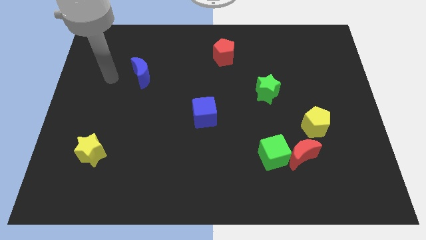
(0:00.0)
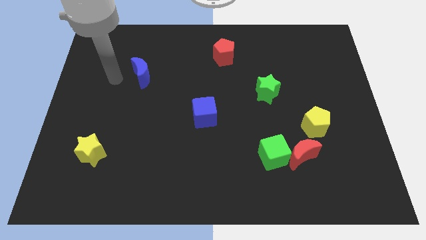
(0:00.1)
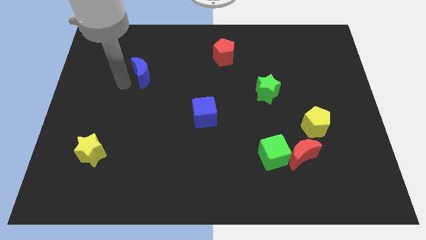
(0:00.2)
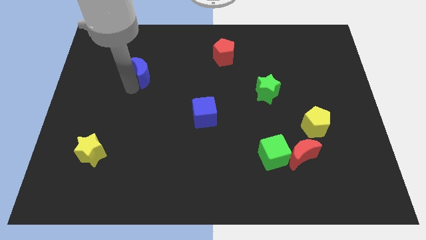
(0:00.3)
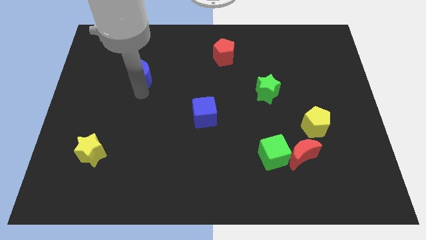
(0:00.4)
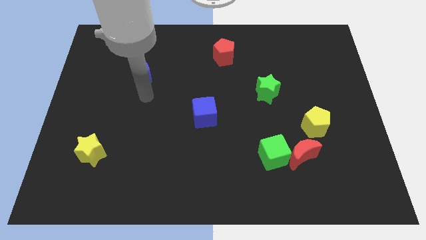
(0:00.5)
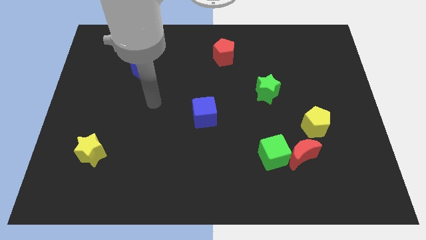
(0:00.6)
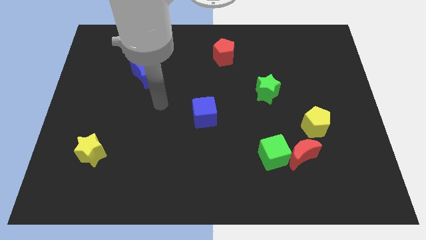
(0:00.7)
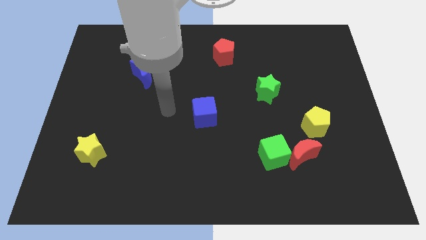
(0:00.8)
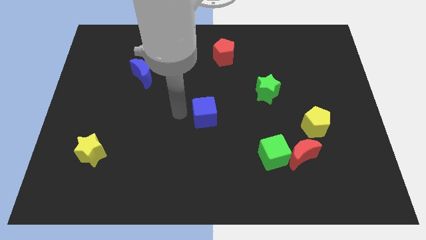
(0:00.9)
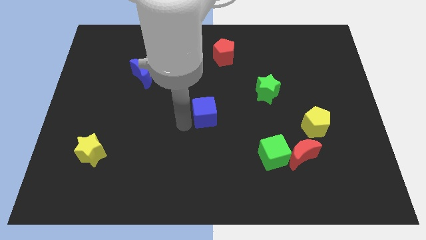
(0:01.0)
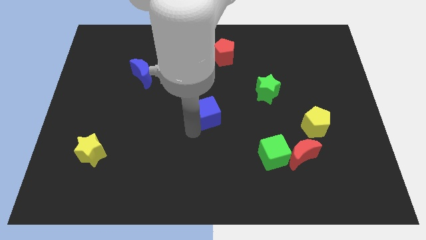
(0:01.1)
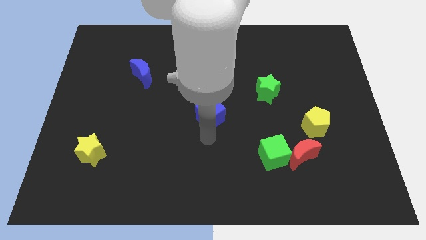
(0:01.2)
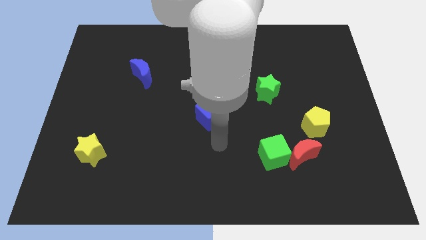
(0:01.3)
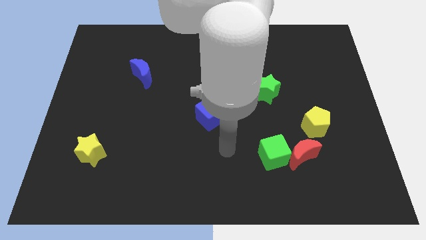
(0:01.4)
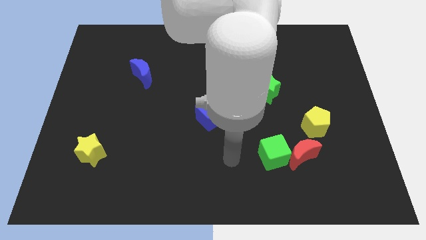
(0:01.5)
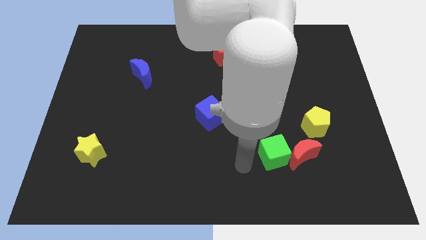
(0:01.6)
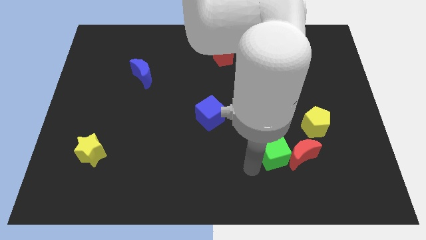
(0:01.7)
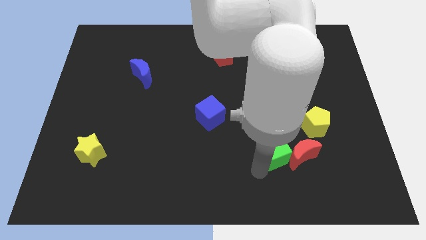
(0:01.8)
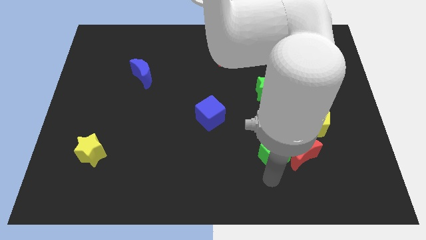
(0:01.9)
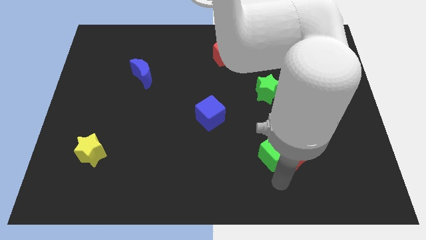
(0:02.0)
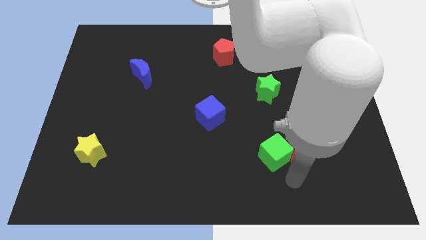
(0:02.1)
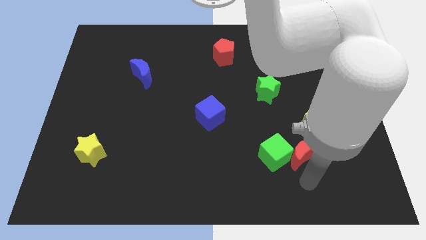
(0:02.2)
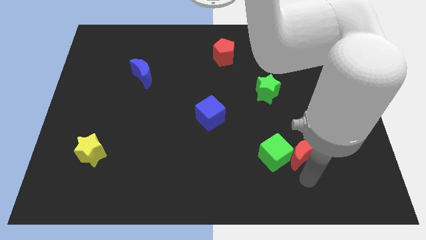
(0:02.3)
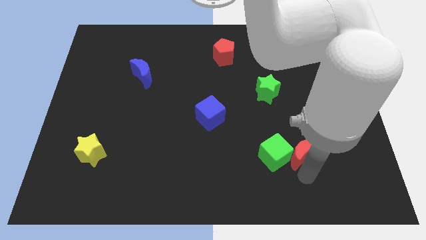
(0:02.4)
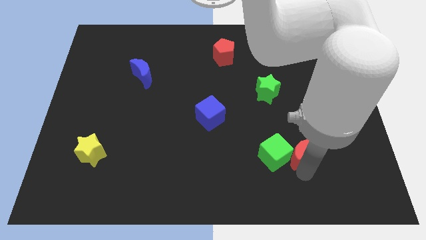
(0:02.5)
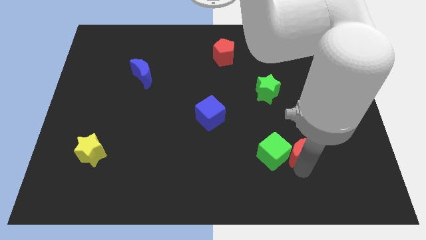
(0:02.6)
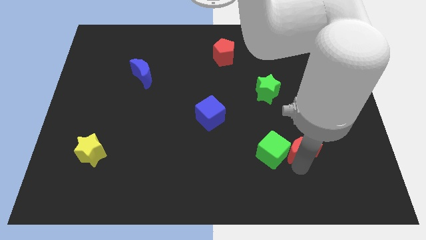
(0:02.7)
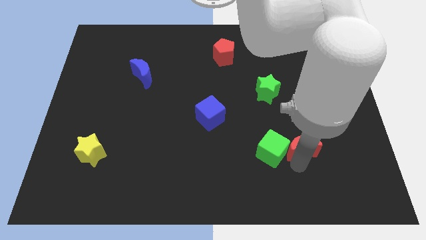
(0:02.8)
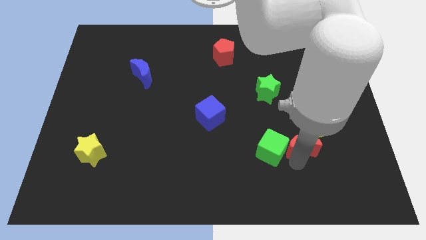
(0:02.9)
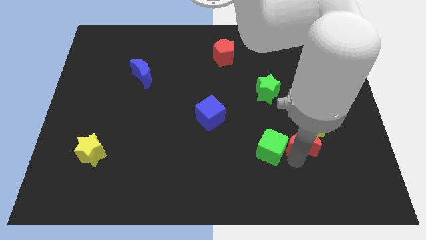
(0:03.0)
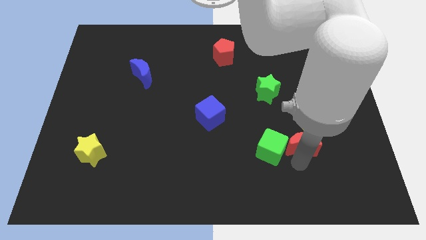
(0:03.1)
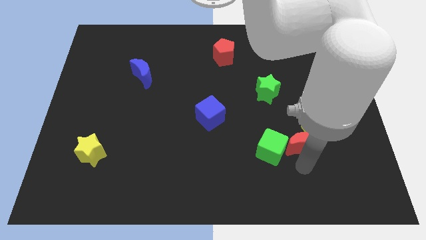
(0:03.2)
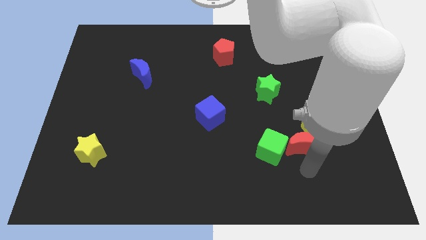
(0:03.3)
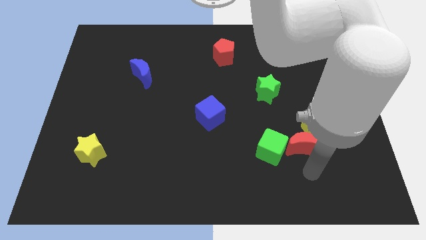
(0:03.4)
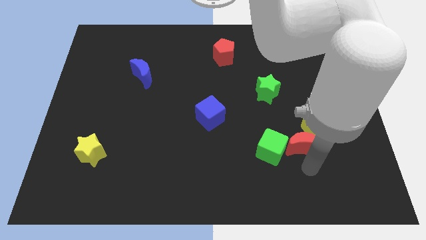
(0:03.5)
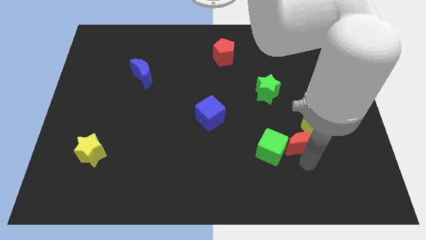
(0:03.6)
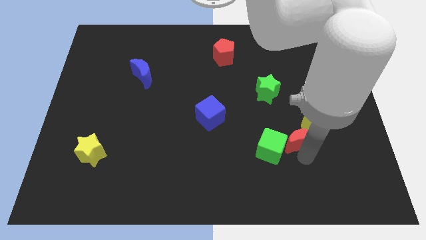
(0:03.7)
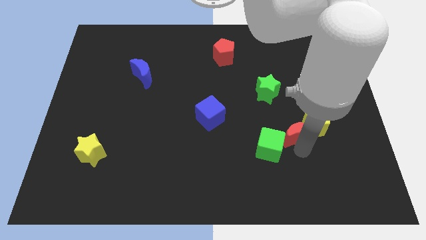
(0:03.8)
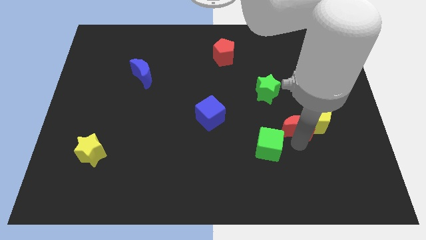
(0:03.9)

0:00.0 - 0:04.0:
slide the red moon up a little

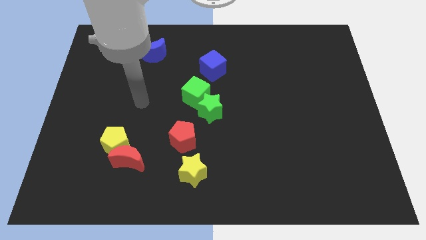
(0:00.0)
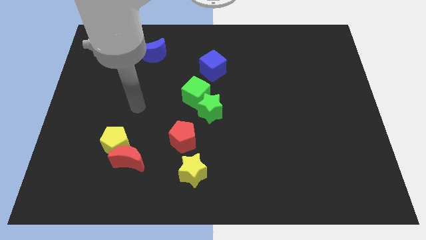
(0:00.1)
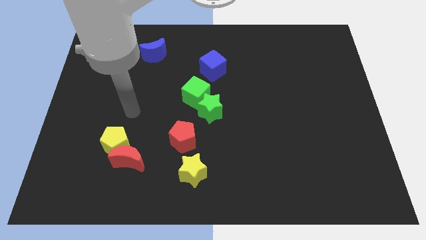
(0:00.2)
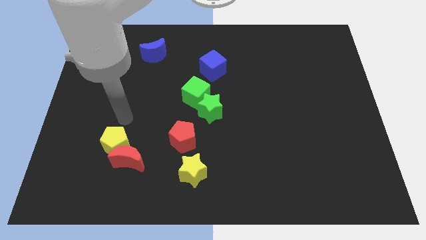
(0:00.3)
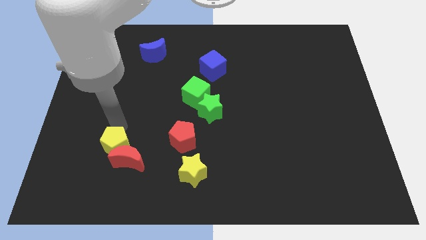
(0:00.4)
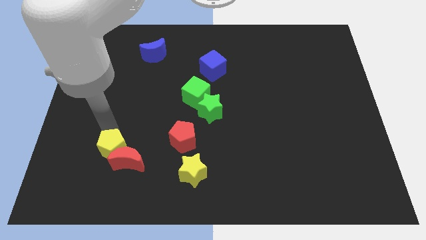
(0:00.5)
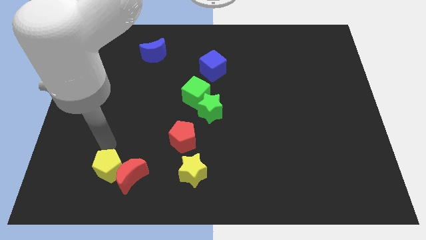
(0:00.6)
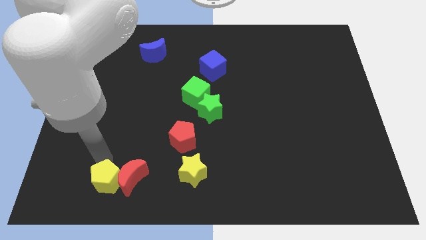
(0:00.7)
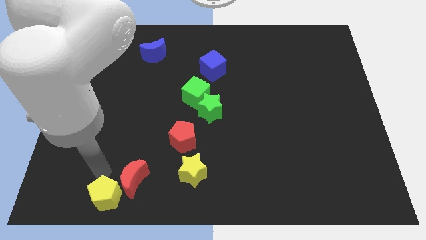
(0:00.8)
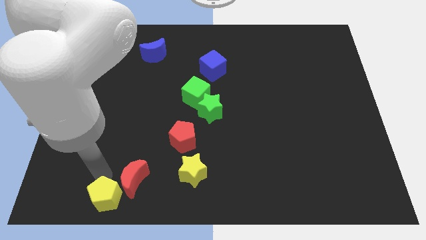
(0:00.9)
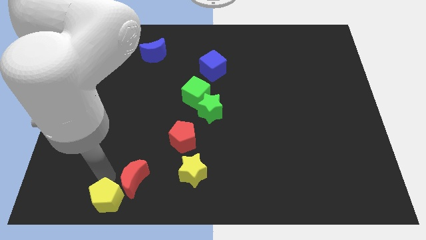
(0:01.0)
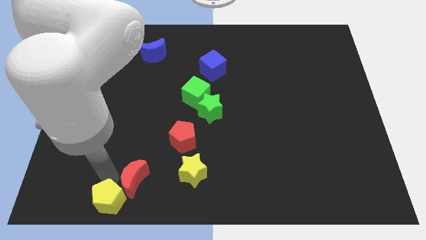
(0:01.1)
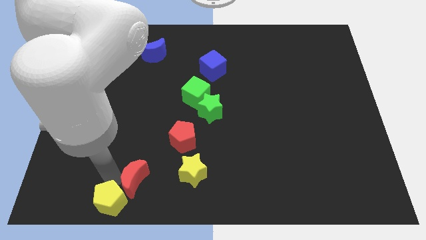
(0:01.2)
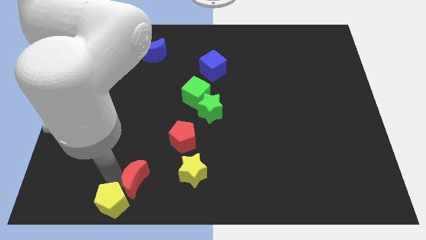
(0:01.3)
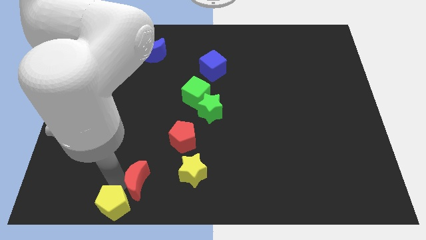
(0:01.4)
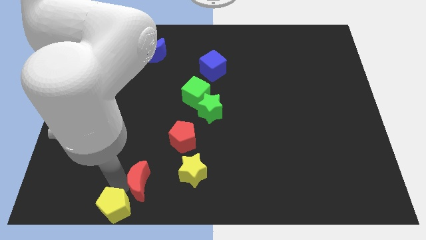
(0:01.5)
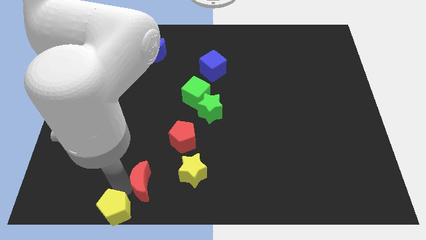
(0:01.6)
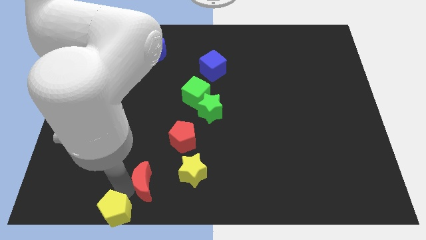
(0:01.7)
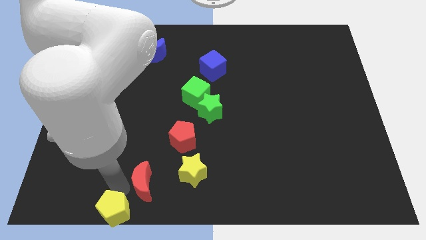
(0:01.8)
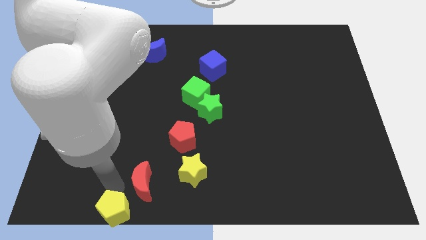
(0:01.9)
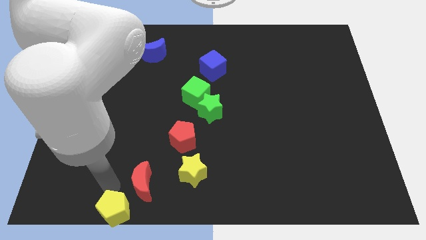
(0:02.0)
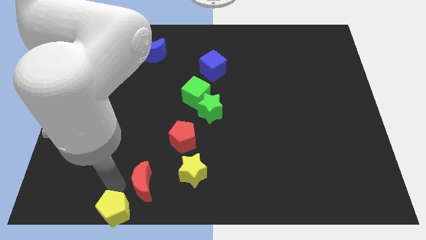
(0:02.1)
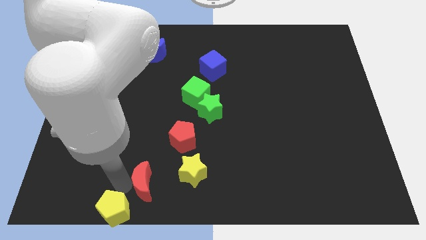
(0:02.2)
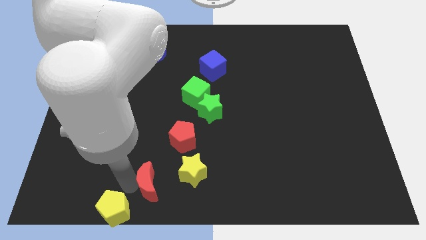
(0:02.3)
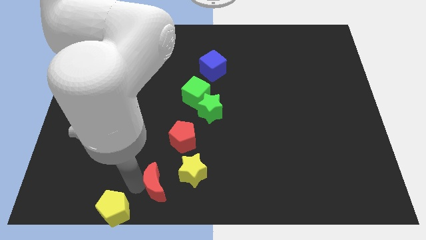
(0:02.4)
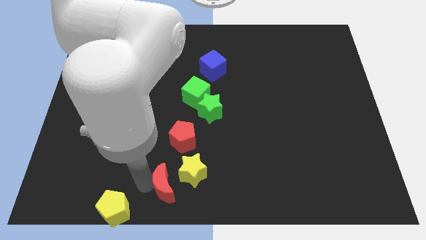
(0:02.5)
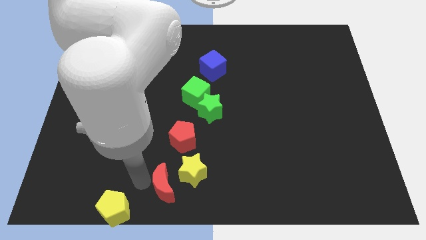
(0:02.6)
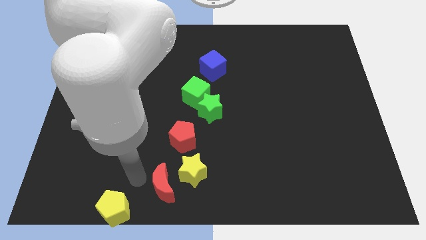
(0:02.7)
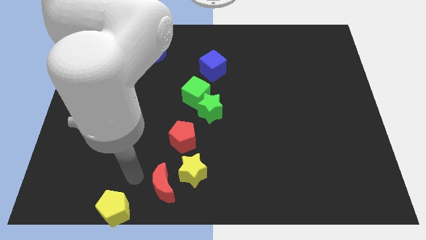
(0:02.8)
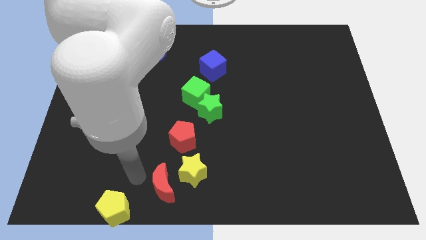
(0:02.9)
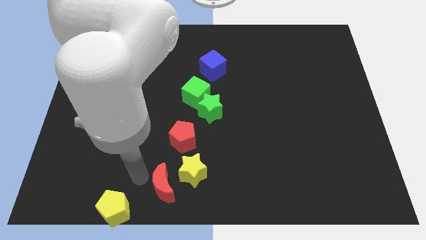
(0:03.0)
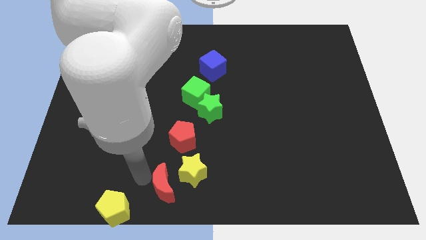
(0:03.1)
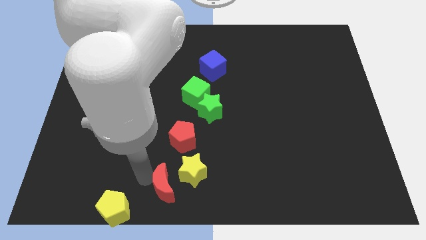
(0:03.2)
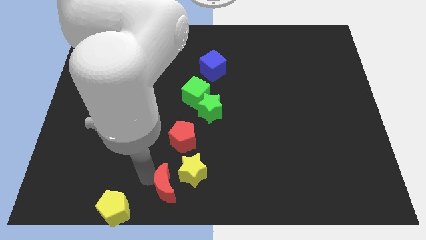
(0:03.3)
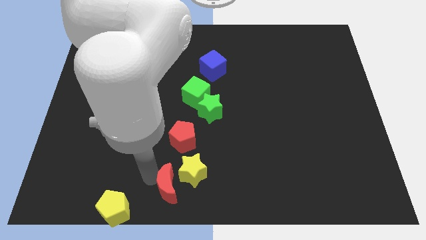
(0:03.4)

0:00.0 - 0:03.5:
move the red moon slightly right

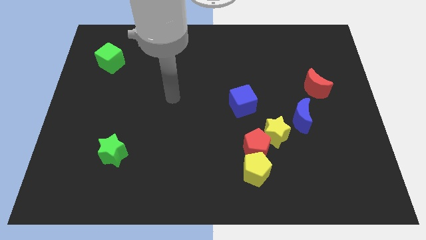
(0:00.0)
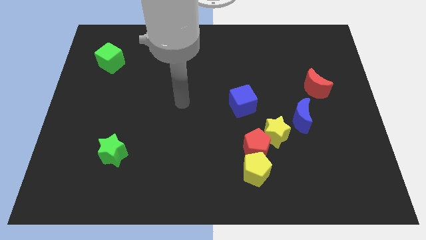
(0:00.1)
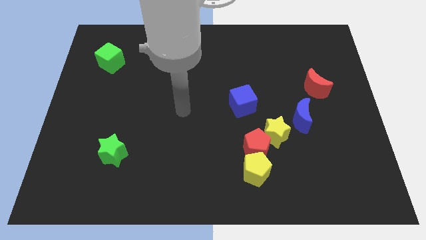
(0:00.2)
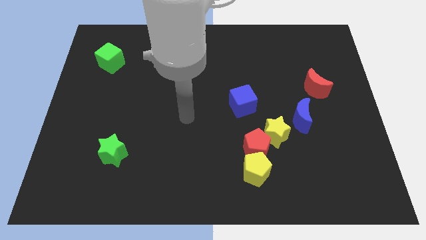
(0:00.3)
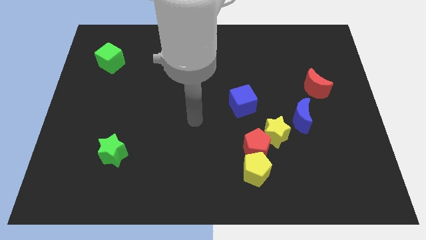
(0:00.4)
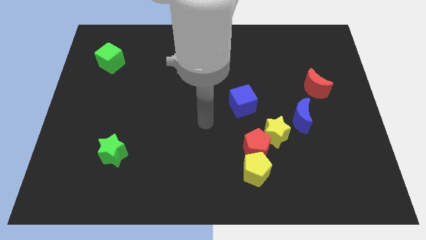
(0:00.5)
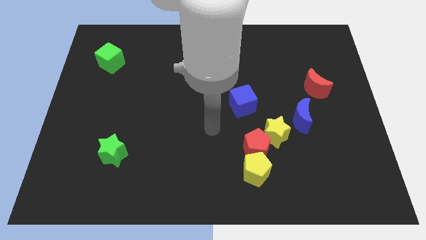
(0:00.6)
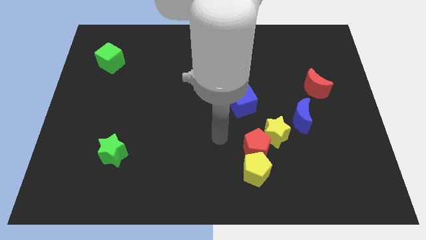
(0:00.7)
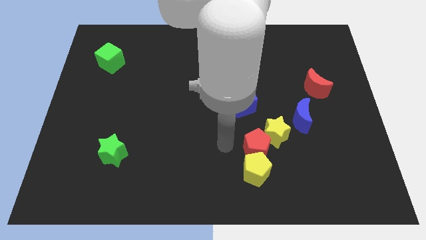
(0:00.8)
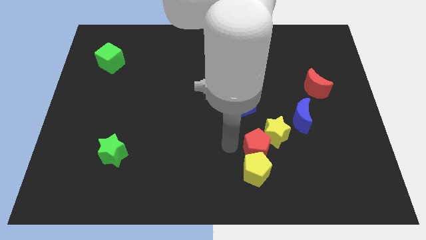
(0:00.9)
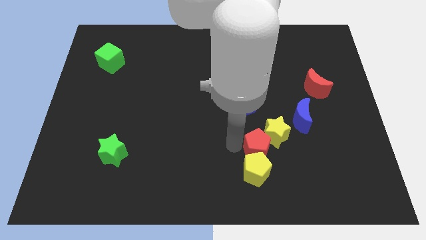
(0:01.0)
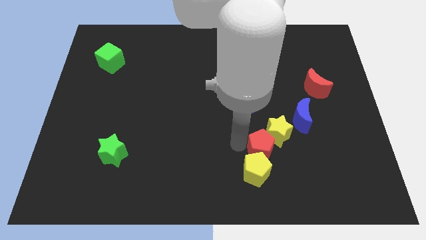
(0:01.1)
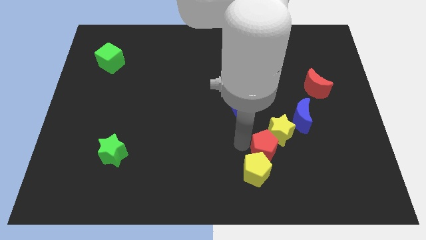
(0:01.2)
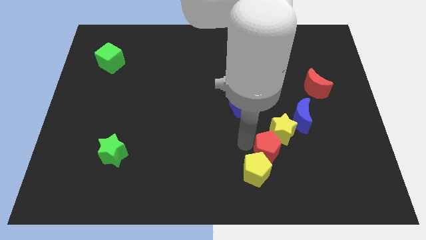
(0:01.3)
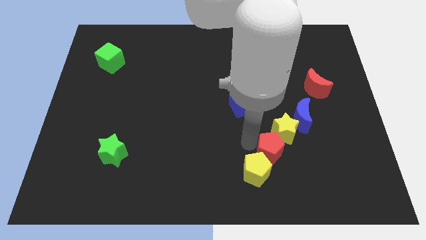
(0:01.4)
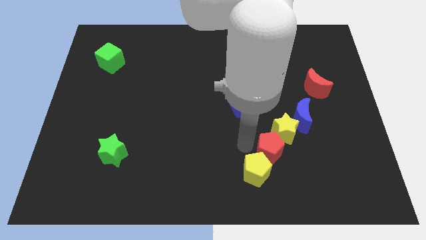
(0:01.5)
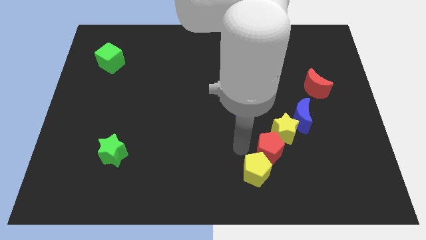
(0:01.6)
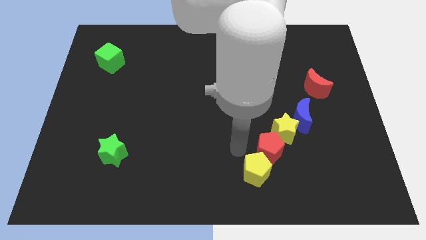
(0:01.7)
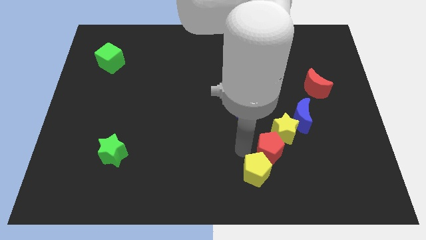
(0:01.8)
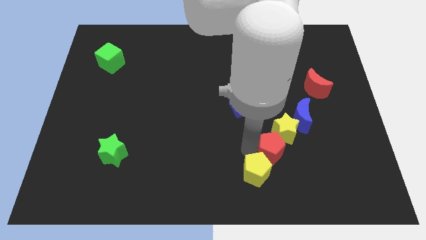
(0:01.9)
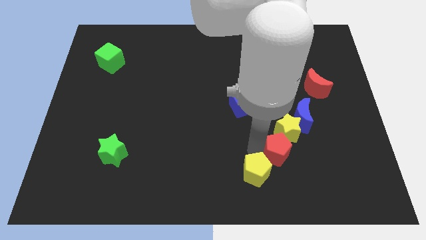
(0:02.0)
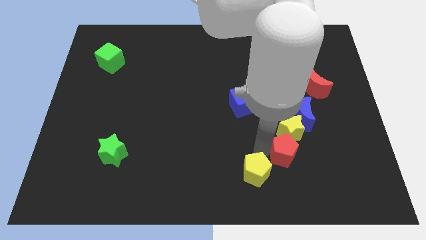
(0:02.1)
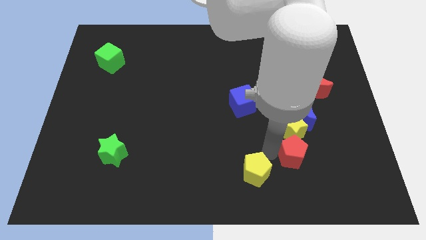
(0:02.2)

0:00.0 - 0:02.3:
slide the red pentagon right slightly
